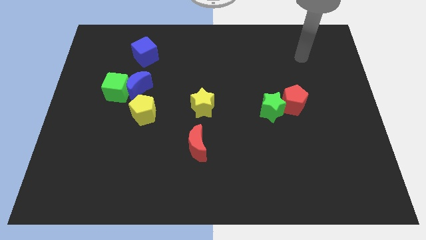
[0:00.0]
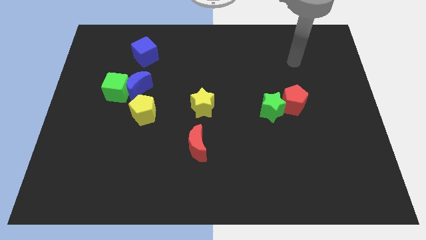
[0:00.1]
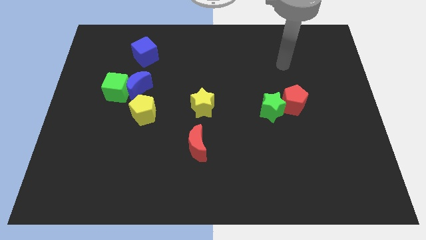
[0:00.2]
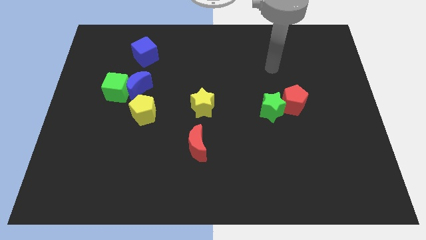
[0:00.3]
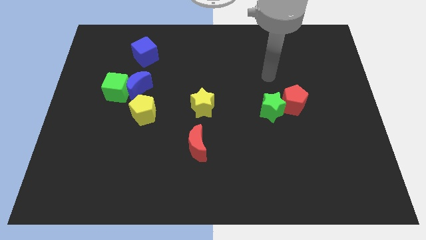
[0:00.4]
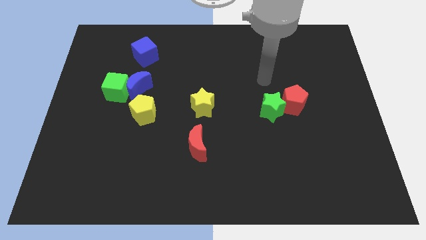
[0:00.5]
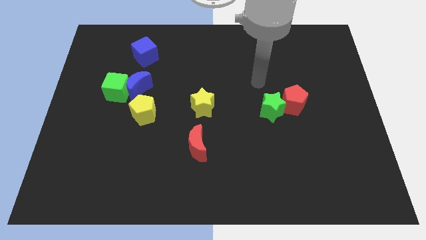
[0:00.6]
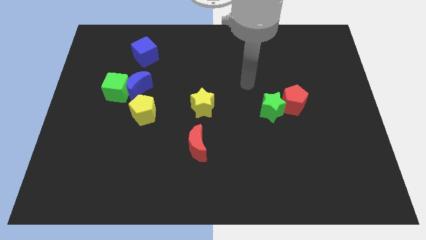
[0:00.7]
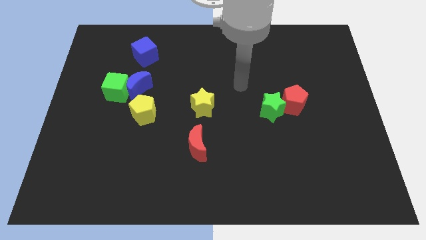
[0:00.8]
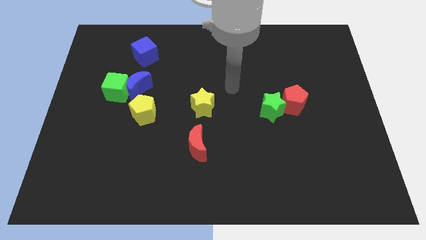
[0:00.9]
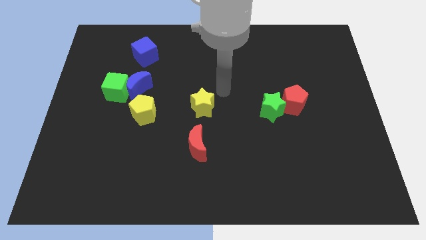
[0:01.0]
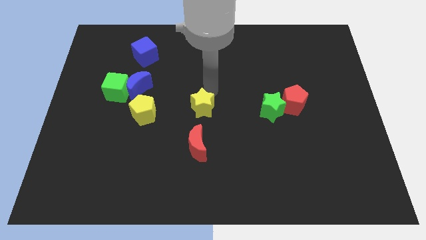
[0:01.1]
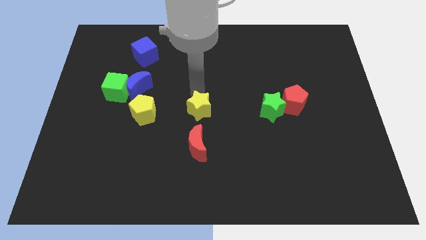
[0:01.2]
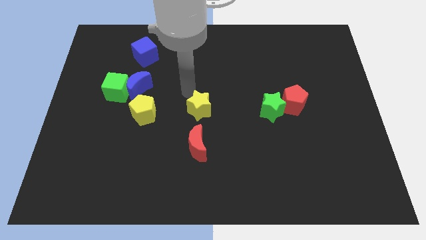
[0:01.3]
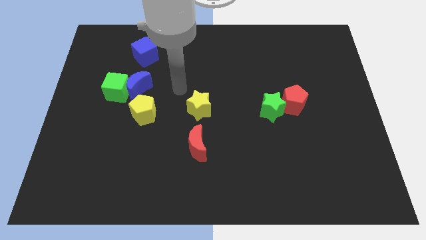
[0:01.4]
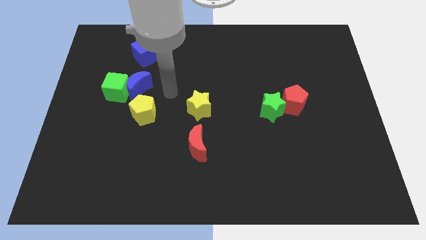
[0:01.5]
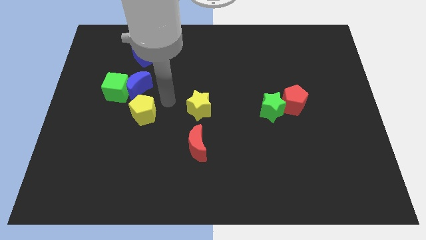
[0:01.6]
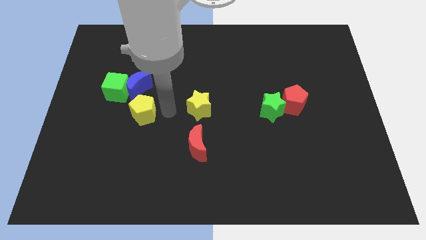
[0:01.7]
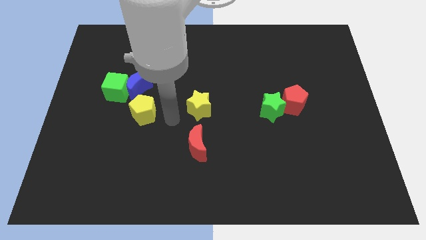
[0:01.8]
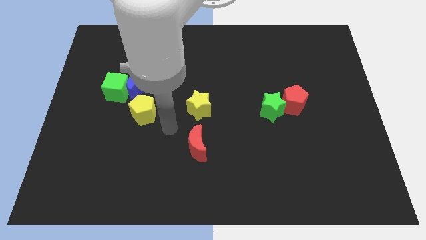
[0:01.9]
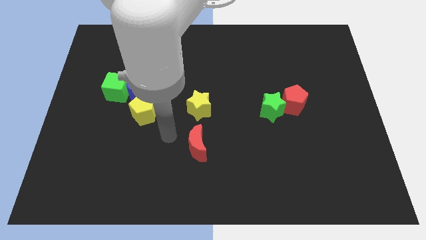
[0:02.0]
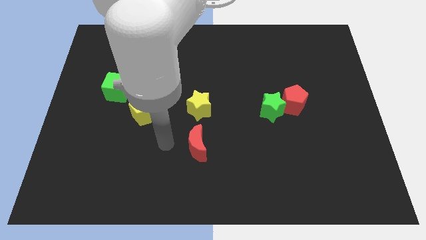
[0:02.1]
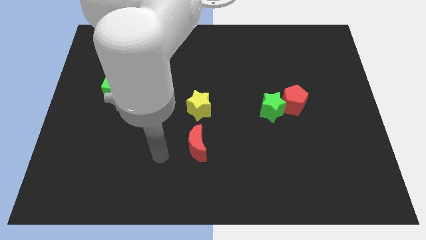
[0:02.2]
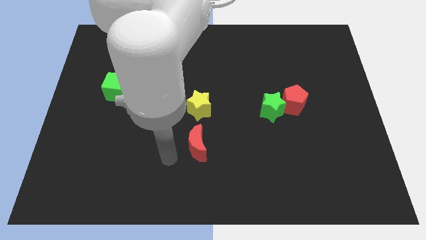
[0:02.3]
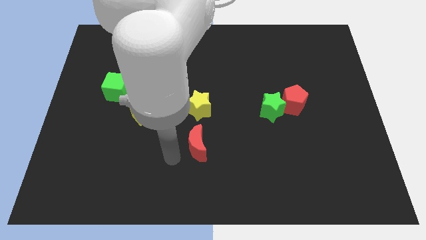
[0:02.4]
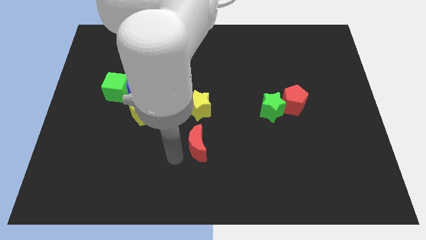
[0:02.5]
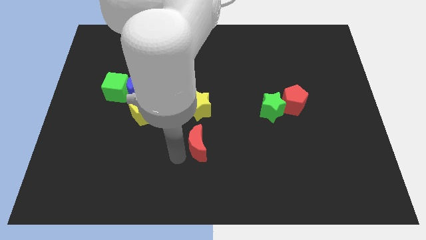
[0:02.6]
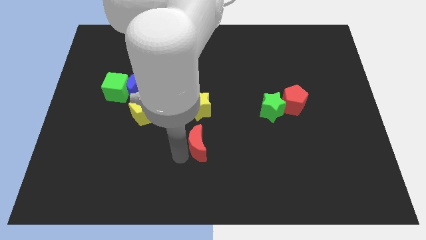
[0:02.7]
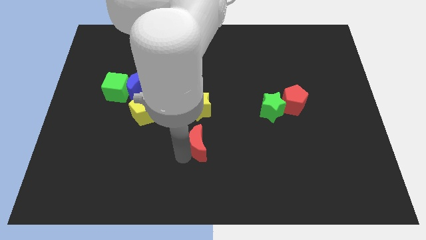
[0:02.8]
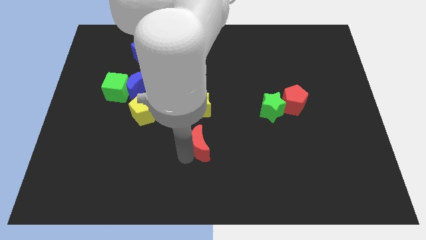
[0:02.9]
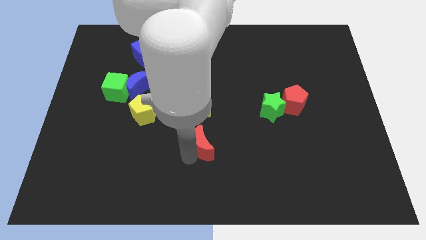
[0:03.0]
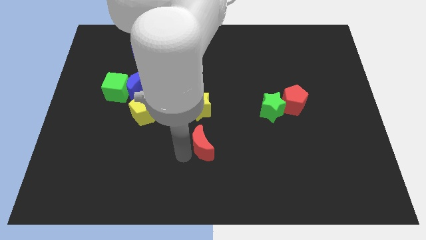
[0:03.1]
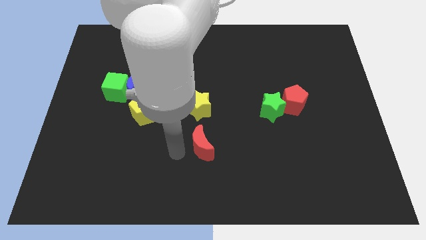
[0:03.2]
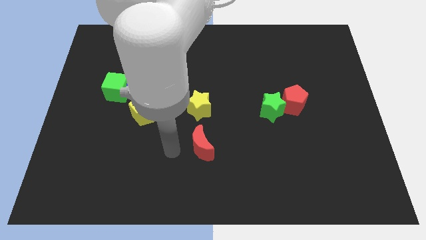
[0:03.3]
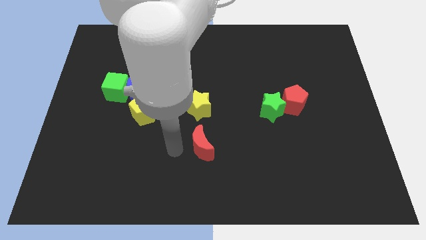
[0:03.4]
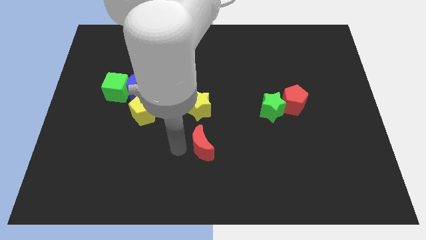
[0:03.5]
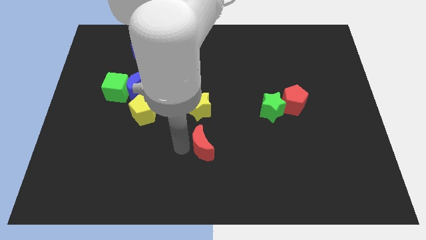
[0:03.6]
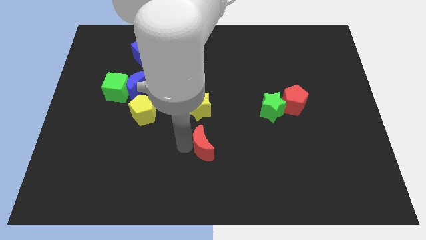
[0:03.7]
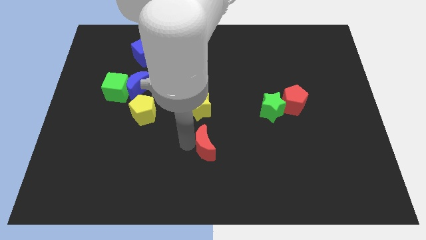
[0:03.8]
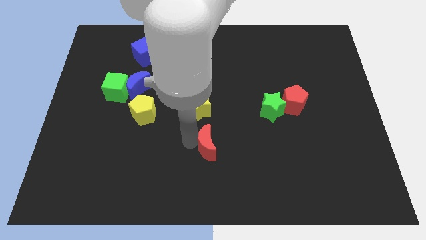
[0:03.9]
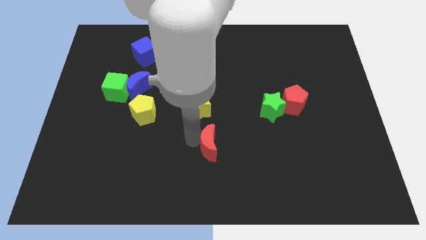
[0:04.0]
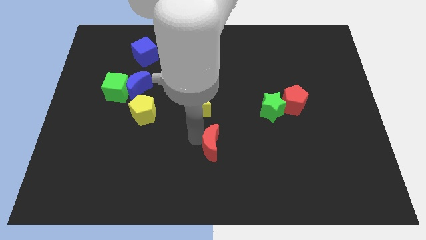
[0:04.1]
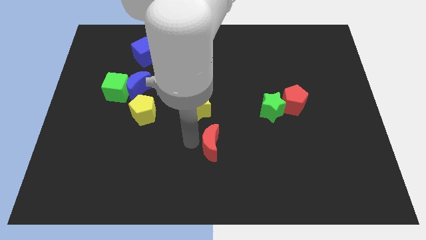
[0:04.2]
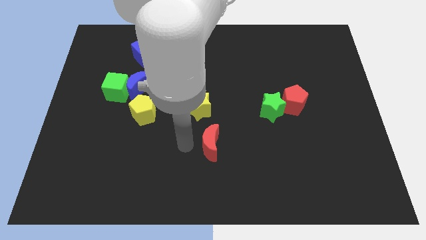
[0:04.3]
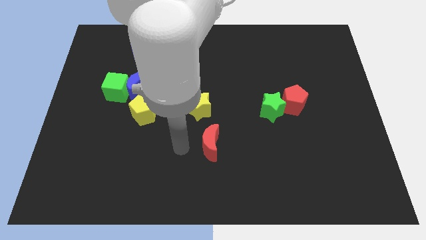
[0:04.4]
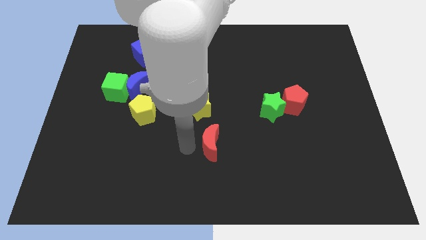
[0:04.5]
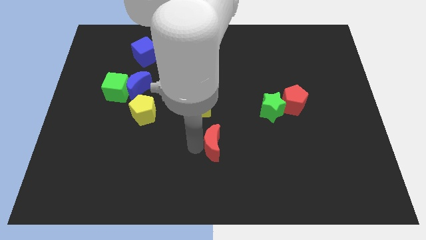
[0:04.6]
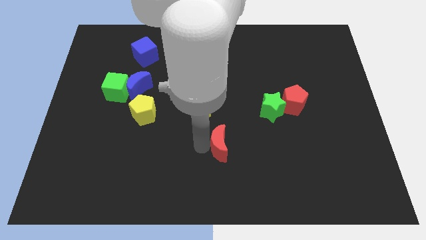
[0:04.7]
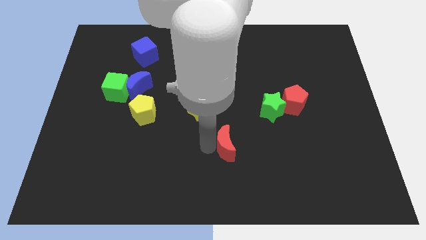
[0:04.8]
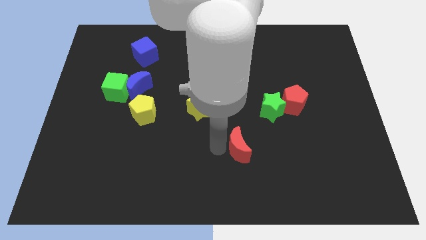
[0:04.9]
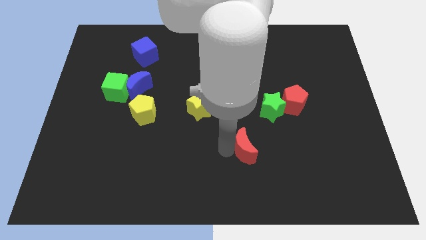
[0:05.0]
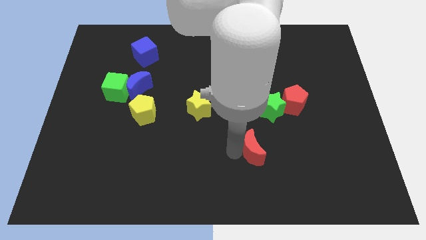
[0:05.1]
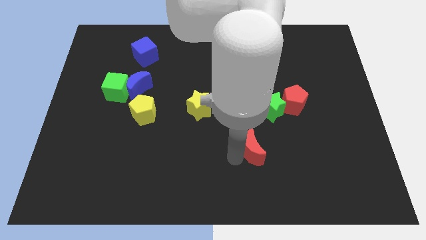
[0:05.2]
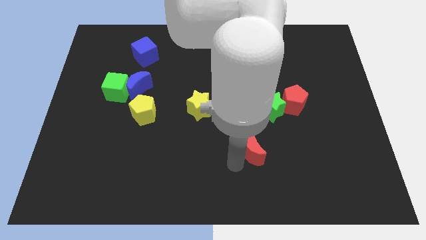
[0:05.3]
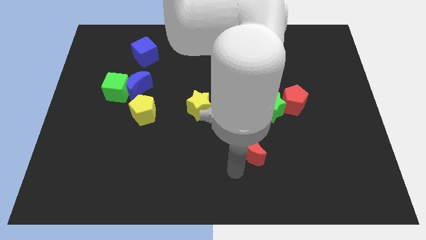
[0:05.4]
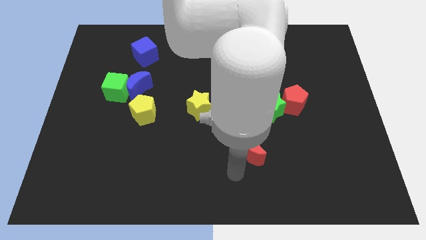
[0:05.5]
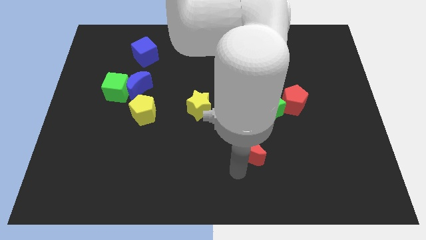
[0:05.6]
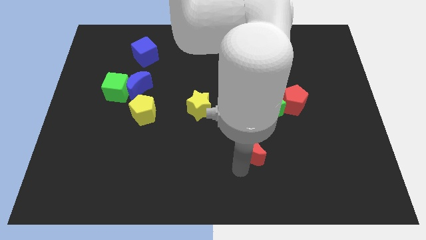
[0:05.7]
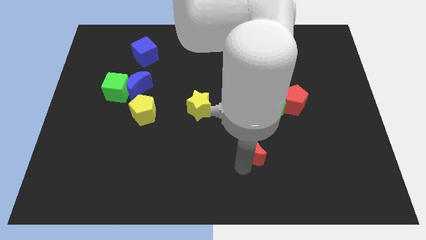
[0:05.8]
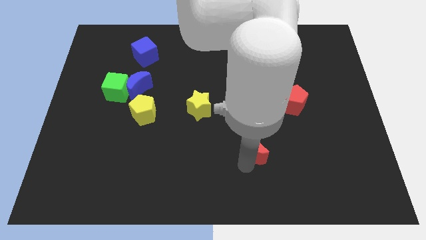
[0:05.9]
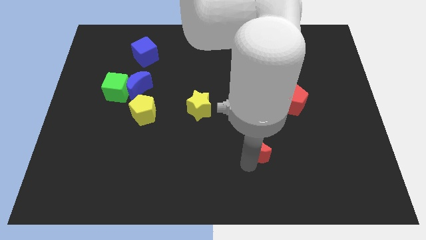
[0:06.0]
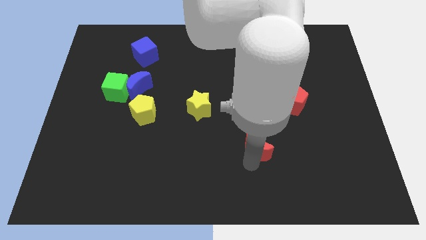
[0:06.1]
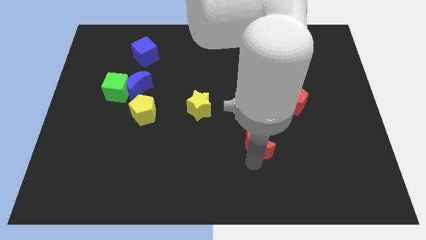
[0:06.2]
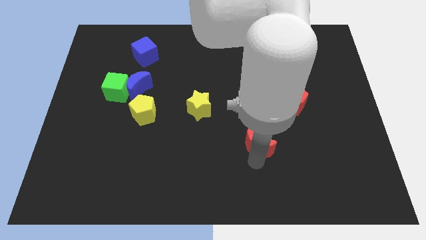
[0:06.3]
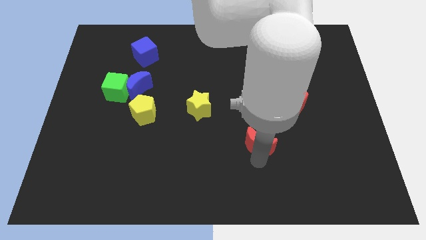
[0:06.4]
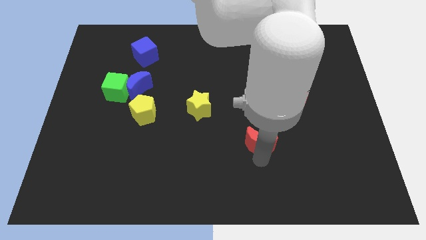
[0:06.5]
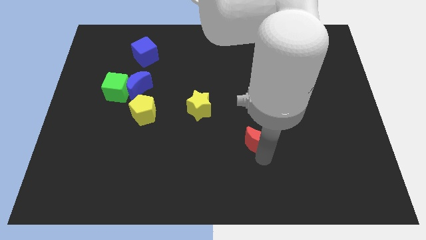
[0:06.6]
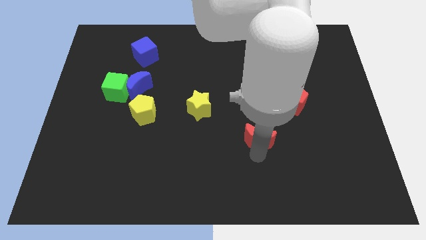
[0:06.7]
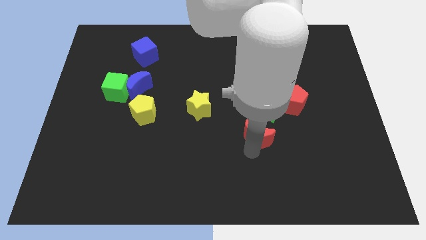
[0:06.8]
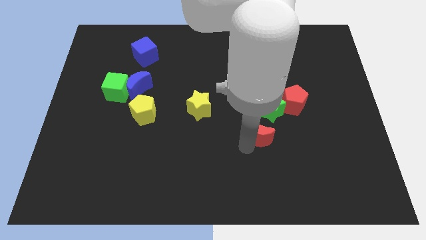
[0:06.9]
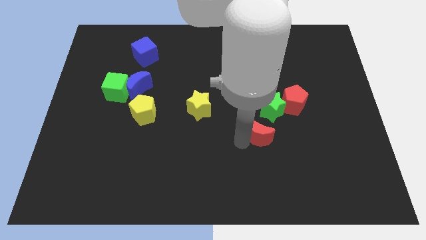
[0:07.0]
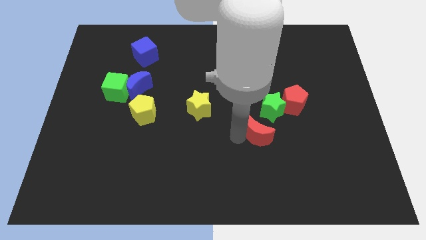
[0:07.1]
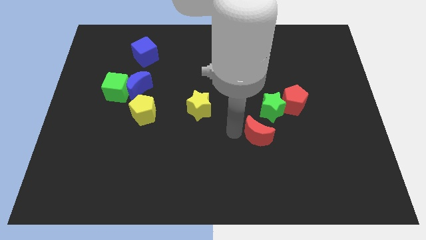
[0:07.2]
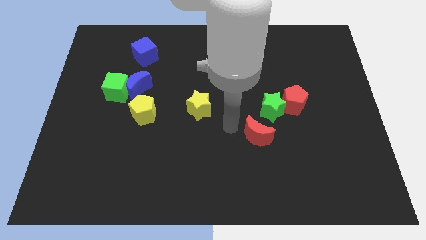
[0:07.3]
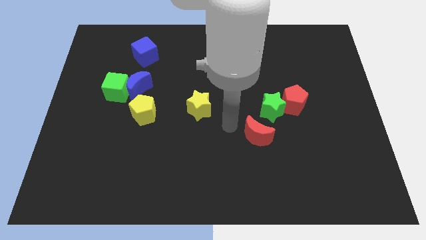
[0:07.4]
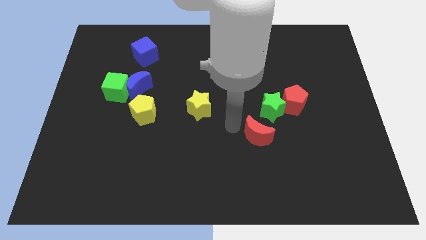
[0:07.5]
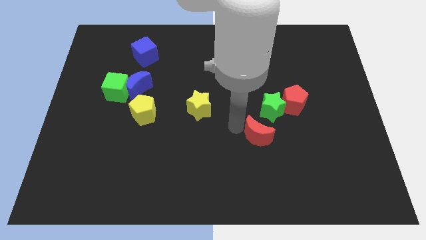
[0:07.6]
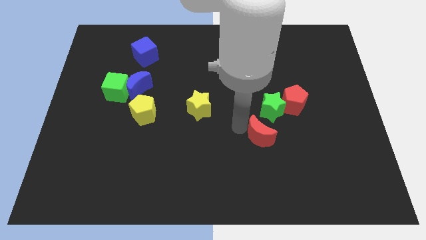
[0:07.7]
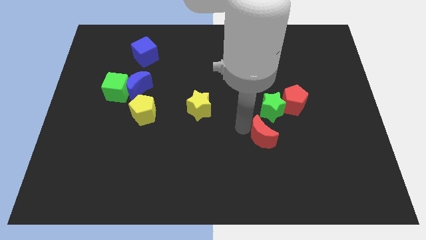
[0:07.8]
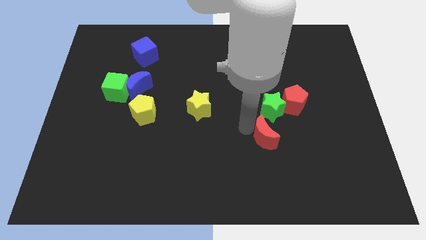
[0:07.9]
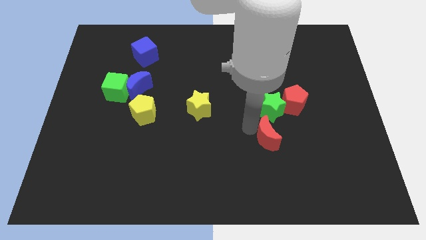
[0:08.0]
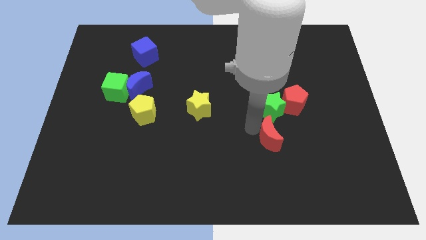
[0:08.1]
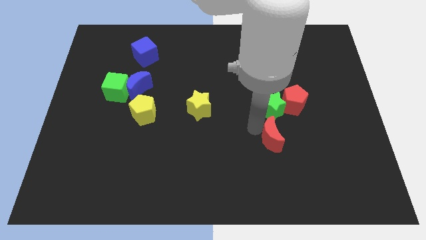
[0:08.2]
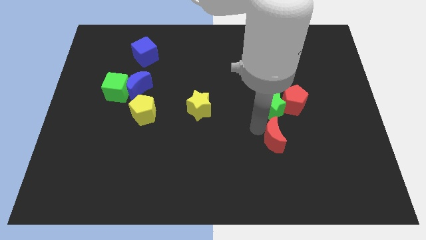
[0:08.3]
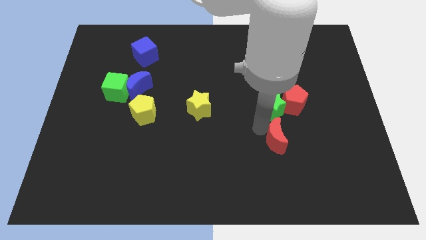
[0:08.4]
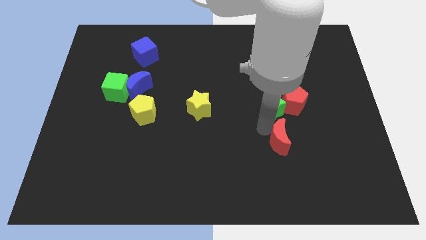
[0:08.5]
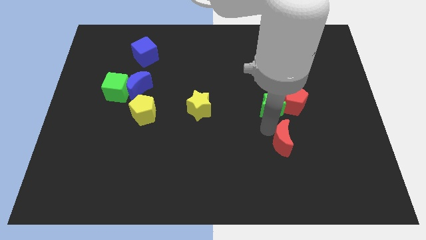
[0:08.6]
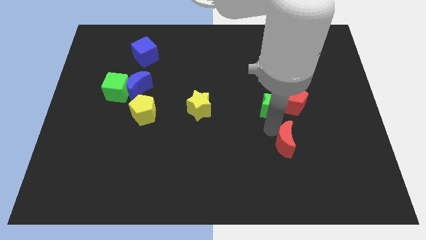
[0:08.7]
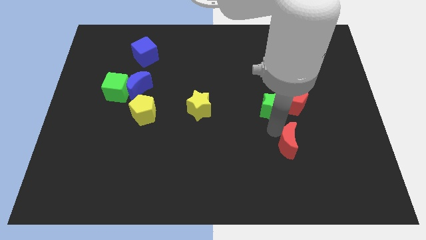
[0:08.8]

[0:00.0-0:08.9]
push the red moon right
